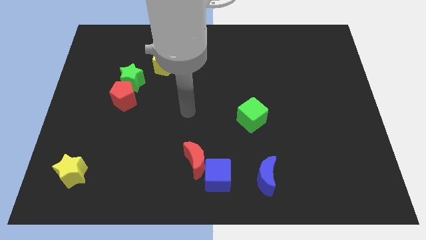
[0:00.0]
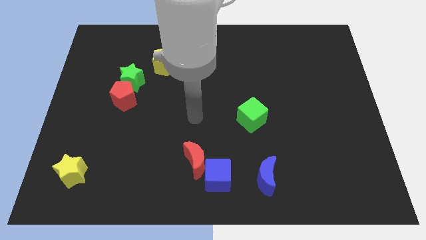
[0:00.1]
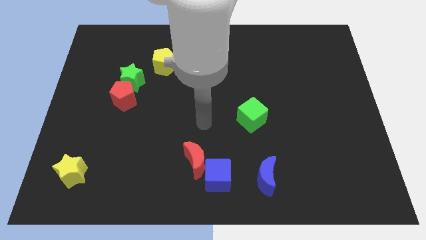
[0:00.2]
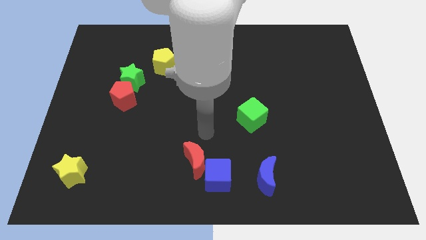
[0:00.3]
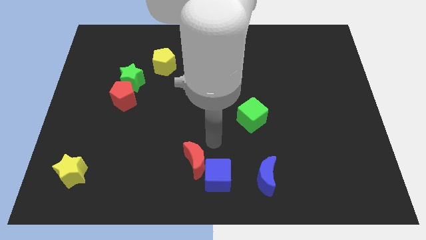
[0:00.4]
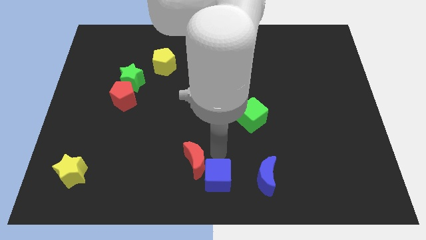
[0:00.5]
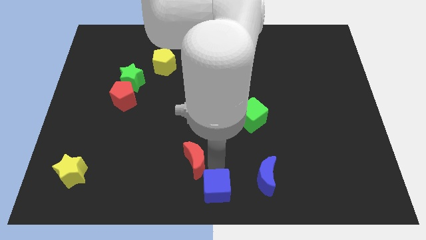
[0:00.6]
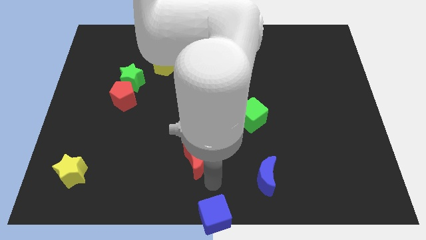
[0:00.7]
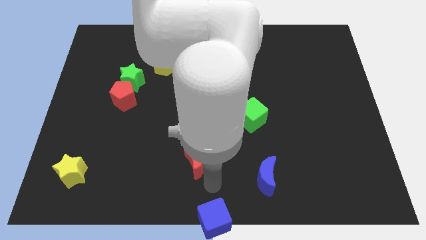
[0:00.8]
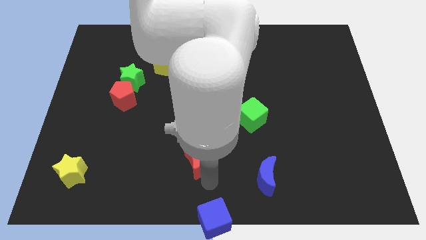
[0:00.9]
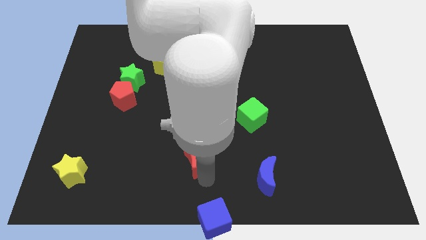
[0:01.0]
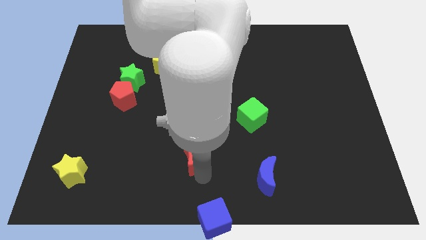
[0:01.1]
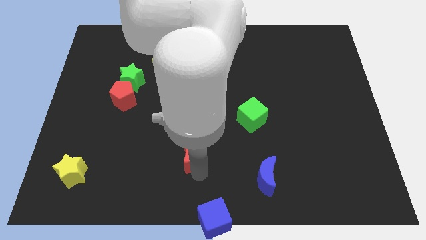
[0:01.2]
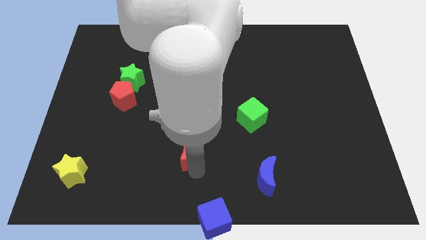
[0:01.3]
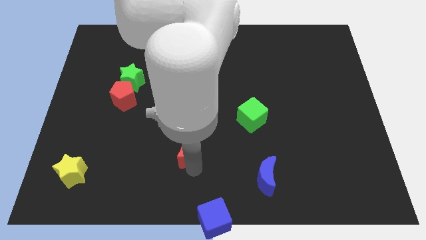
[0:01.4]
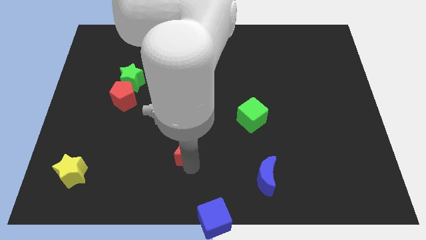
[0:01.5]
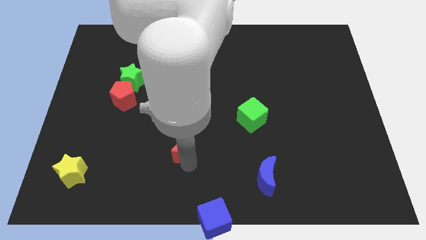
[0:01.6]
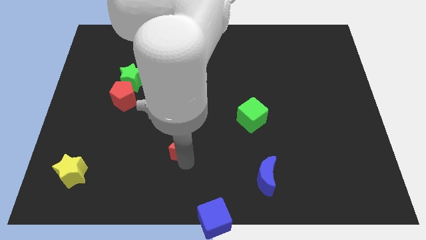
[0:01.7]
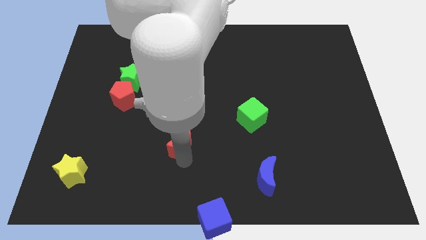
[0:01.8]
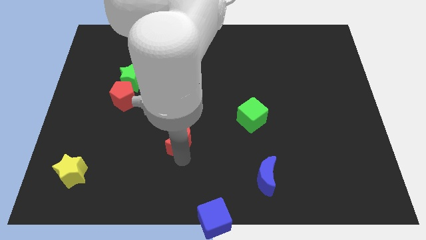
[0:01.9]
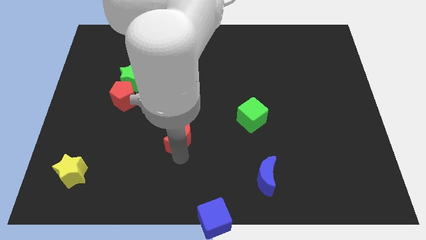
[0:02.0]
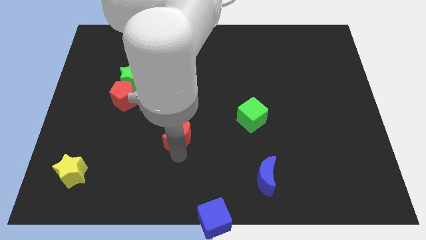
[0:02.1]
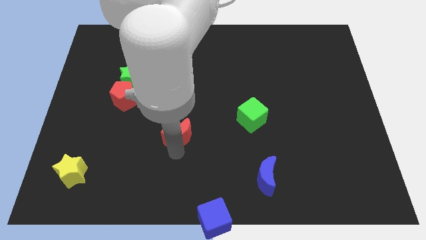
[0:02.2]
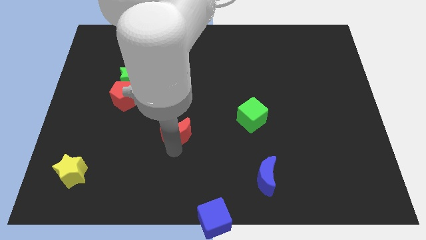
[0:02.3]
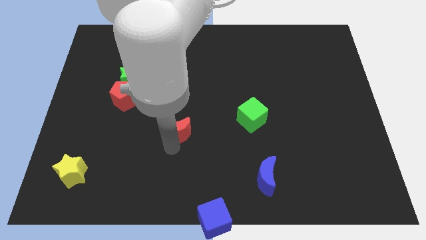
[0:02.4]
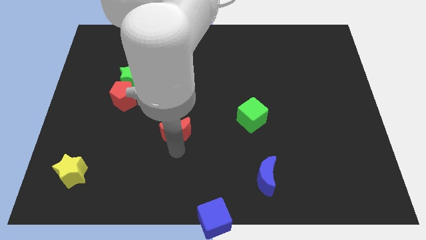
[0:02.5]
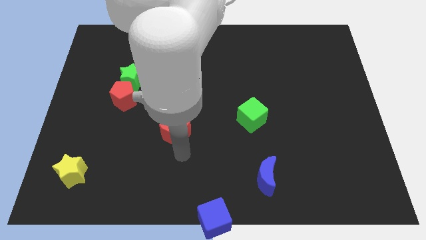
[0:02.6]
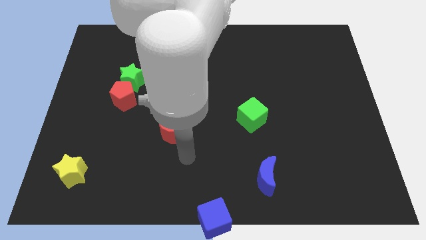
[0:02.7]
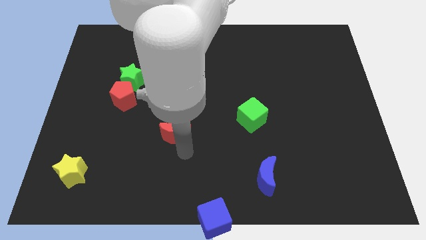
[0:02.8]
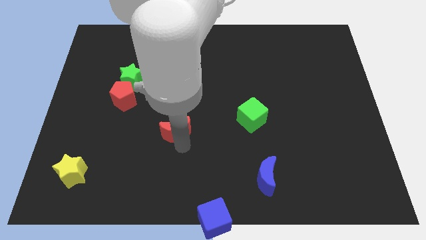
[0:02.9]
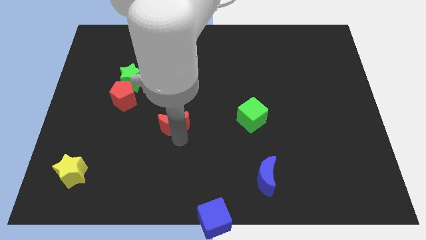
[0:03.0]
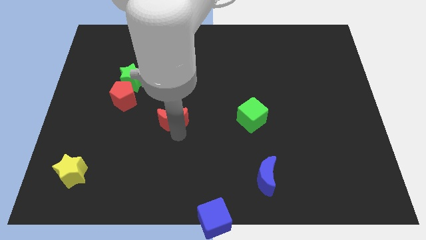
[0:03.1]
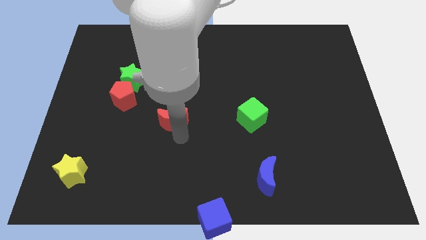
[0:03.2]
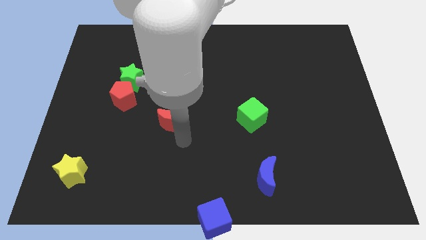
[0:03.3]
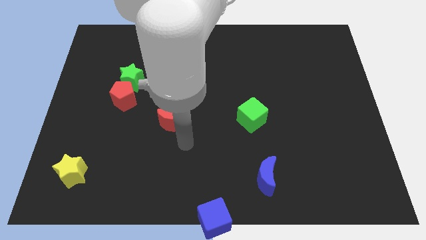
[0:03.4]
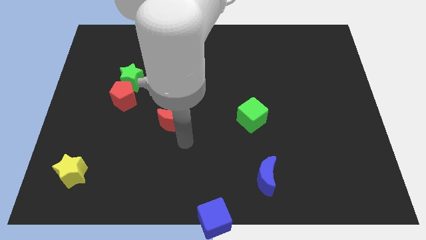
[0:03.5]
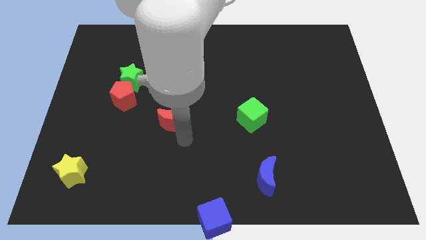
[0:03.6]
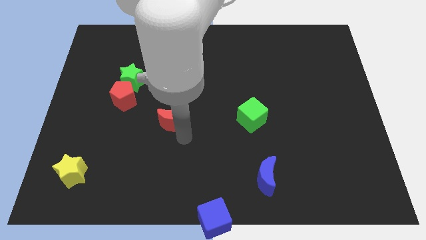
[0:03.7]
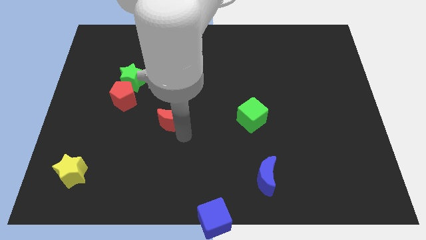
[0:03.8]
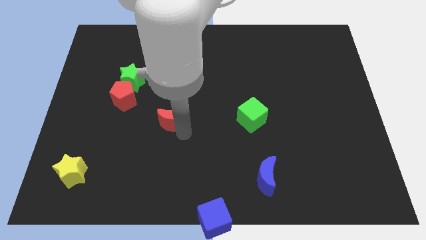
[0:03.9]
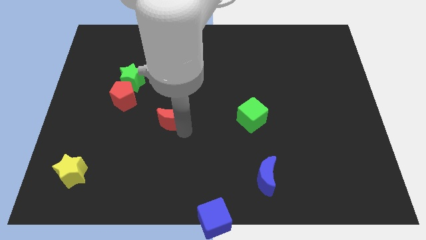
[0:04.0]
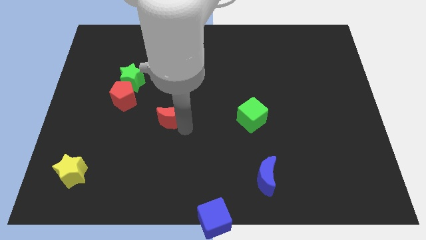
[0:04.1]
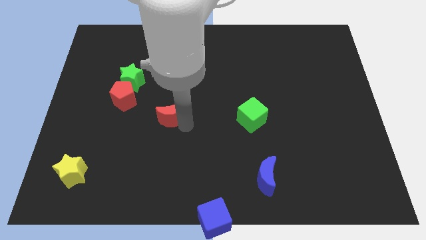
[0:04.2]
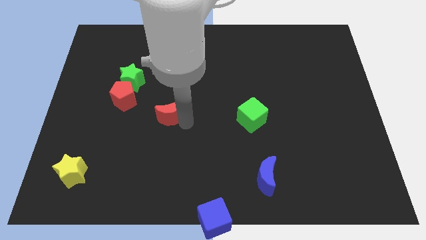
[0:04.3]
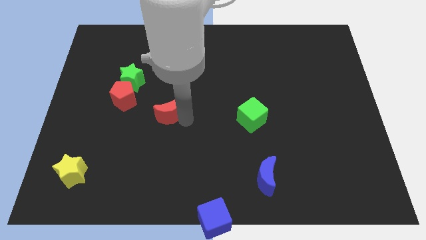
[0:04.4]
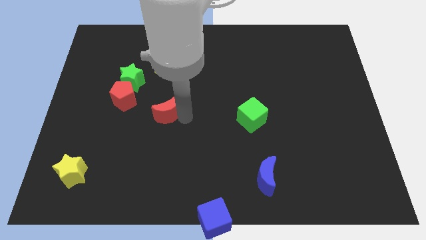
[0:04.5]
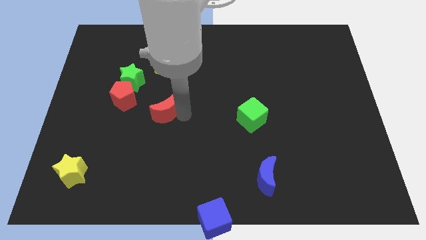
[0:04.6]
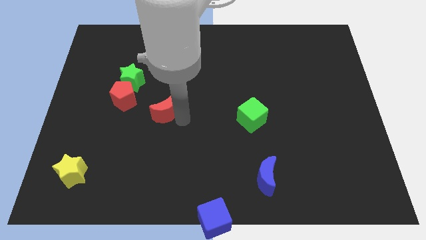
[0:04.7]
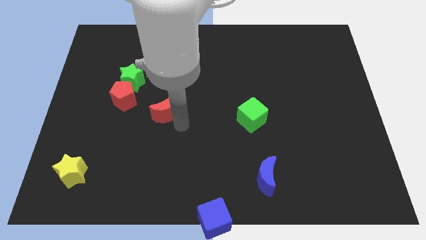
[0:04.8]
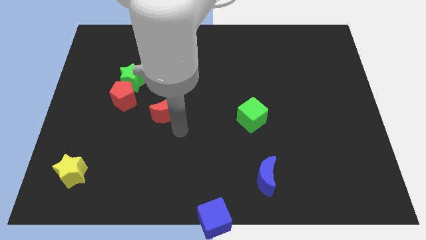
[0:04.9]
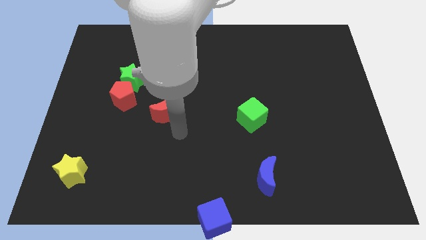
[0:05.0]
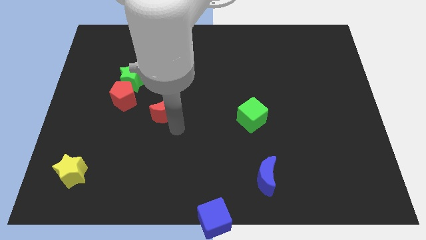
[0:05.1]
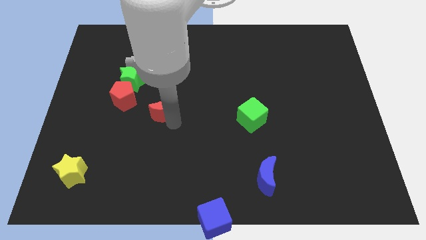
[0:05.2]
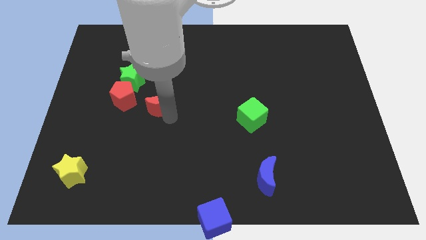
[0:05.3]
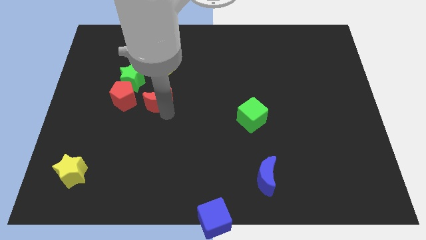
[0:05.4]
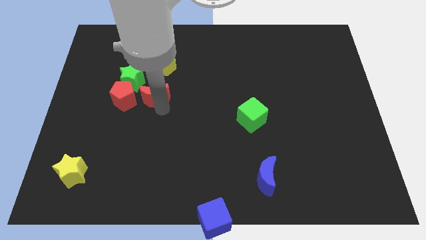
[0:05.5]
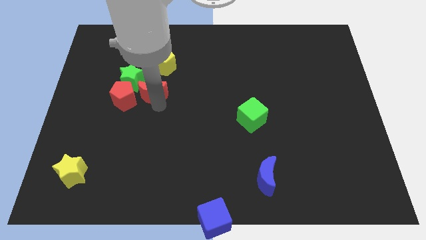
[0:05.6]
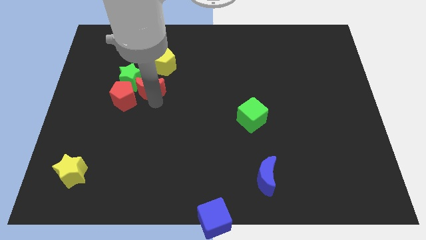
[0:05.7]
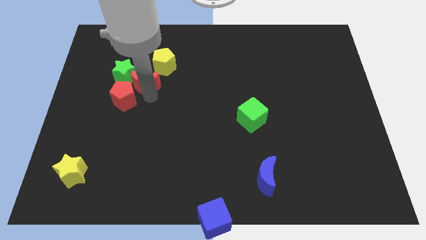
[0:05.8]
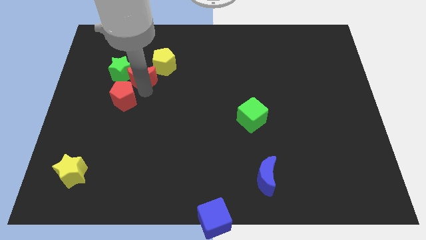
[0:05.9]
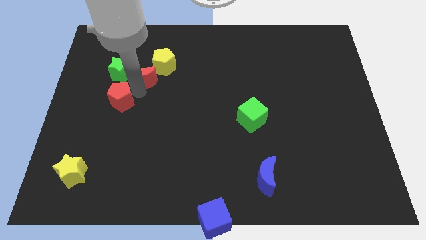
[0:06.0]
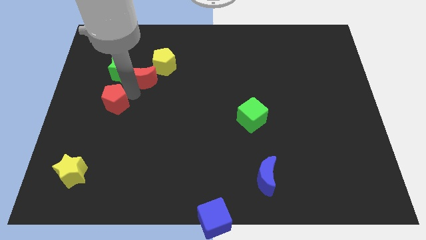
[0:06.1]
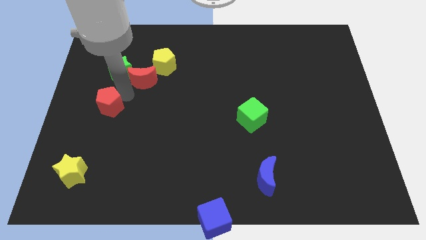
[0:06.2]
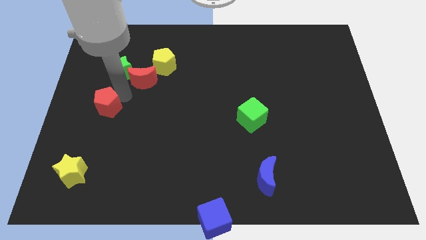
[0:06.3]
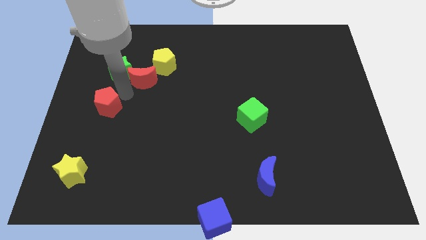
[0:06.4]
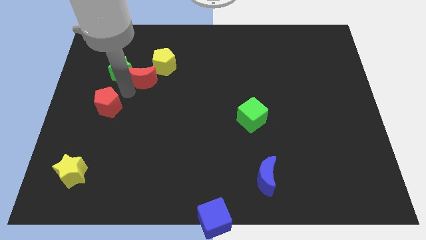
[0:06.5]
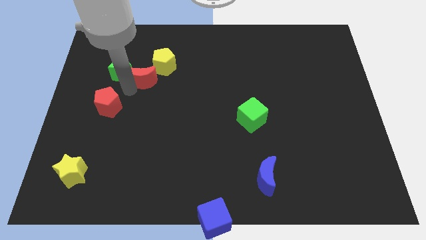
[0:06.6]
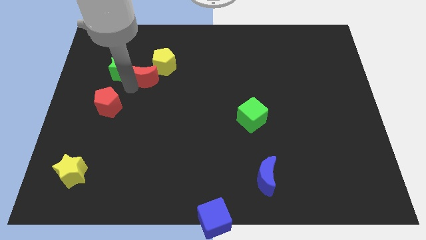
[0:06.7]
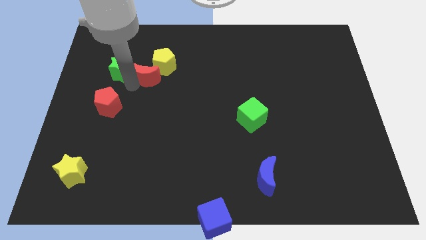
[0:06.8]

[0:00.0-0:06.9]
put the red moon close to the yellow pentagon

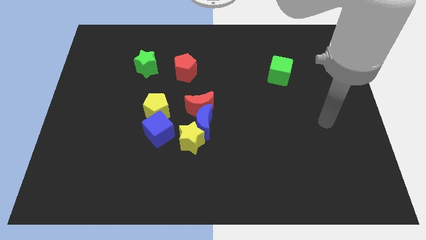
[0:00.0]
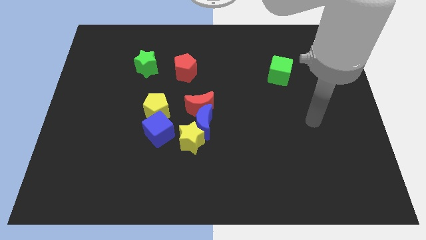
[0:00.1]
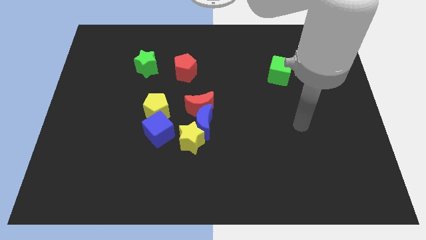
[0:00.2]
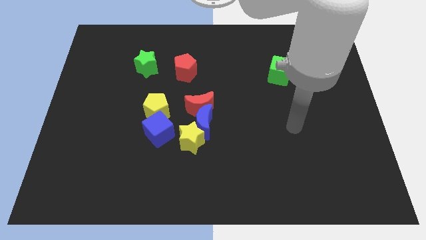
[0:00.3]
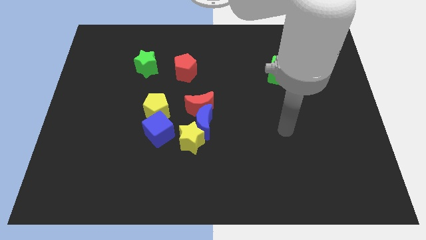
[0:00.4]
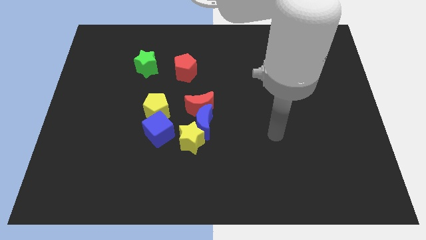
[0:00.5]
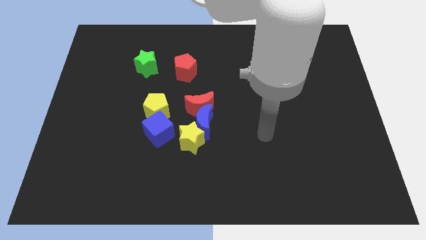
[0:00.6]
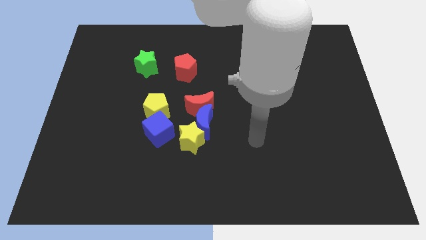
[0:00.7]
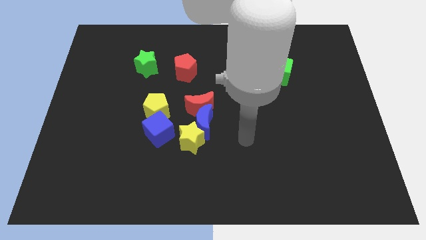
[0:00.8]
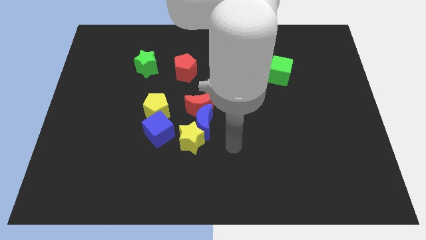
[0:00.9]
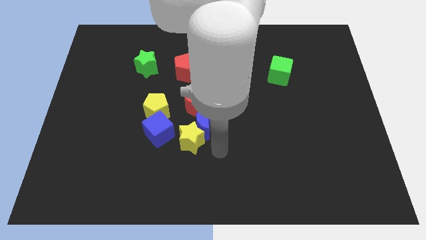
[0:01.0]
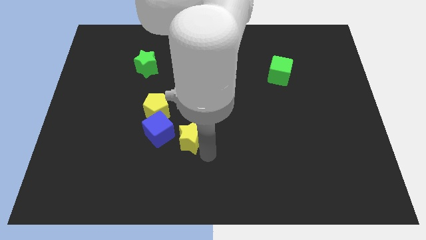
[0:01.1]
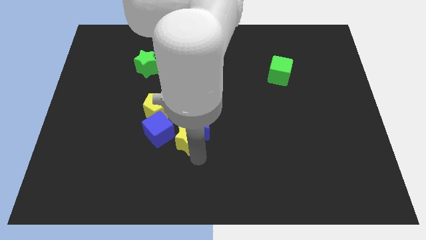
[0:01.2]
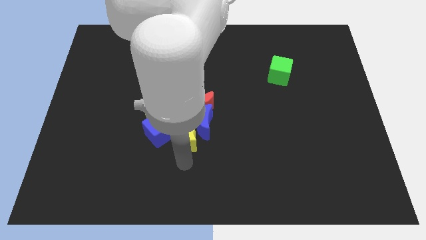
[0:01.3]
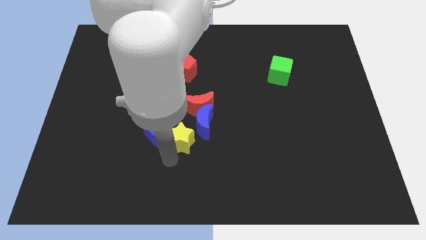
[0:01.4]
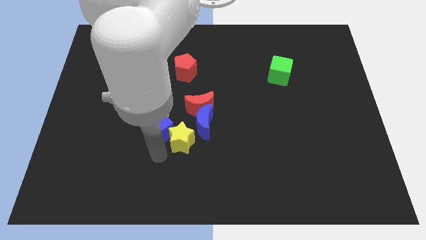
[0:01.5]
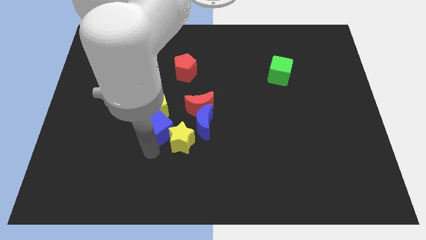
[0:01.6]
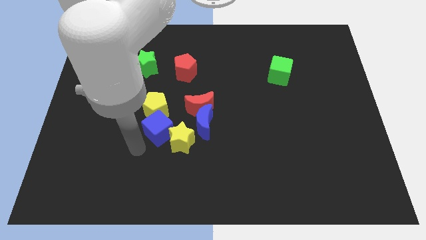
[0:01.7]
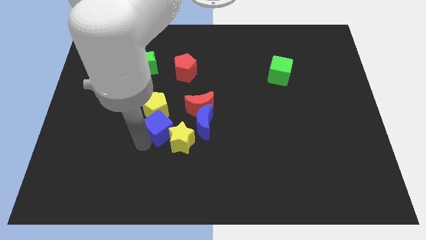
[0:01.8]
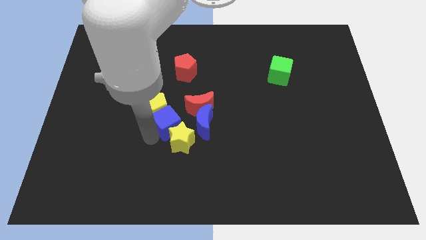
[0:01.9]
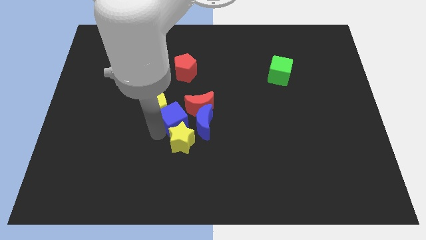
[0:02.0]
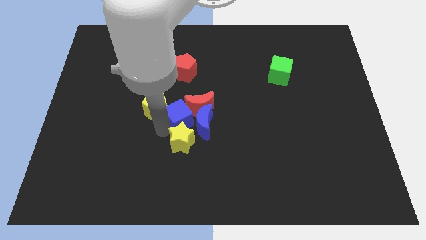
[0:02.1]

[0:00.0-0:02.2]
move the blue cube close to the red moon
